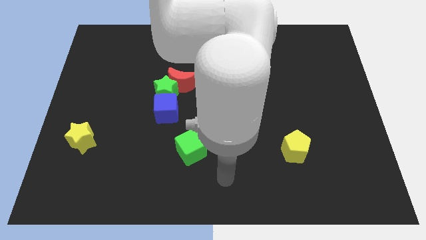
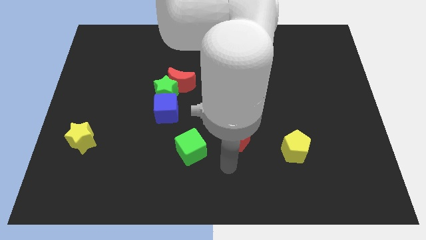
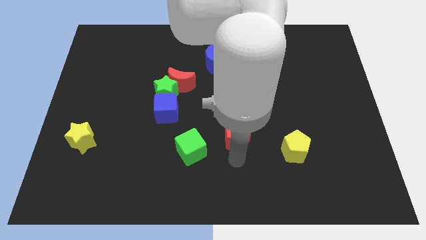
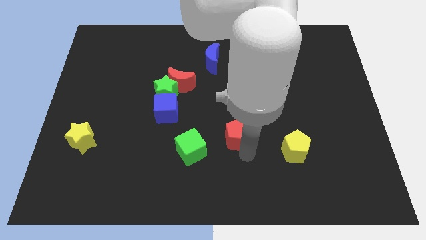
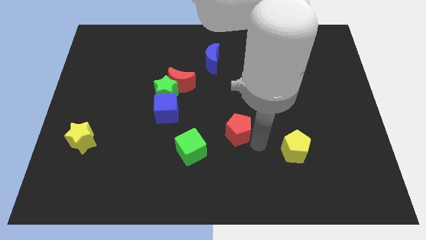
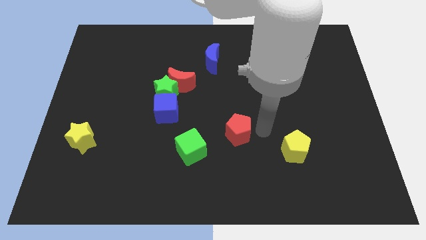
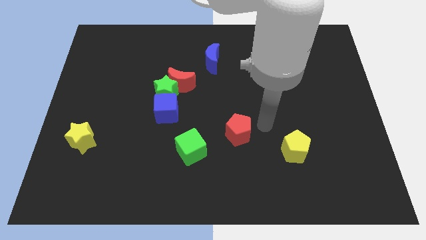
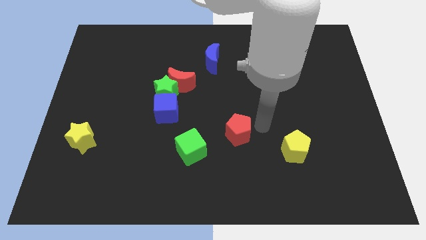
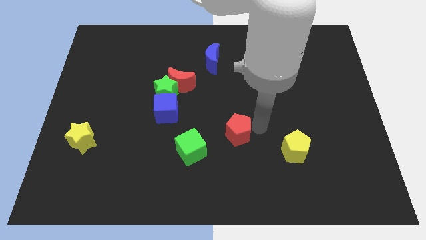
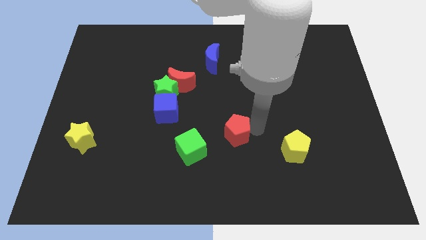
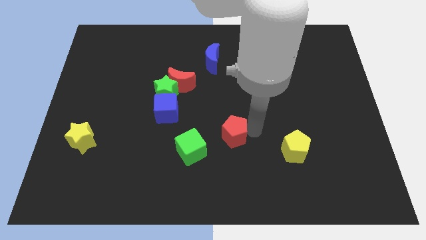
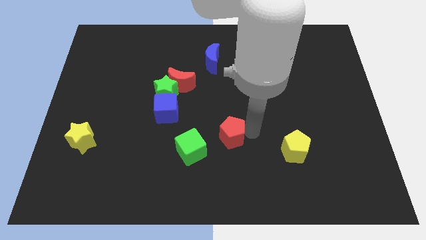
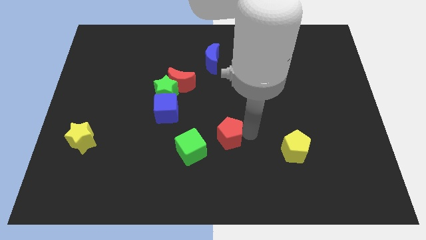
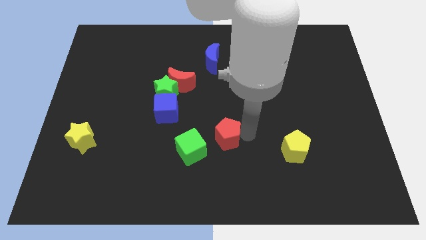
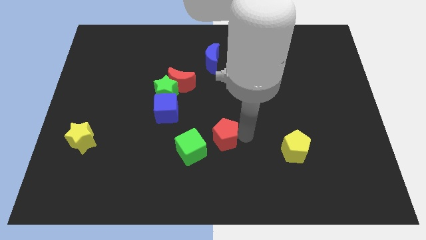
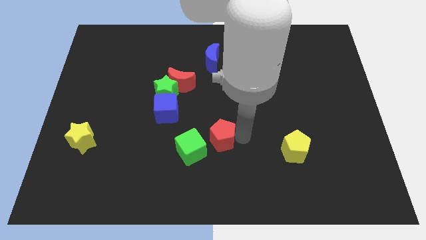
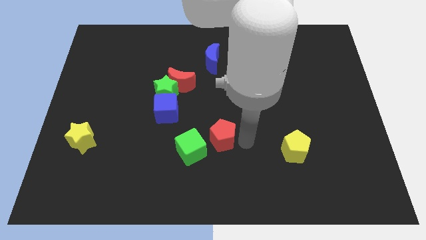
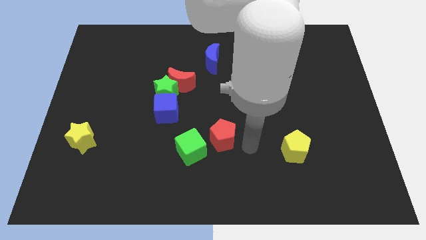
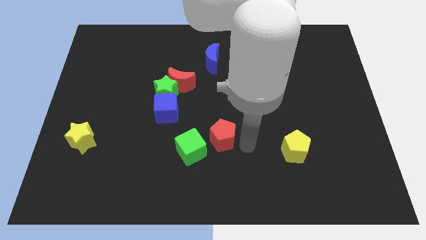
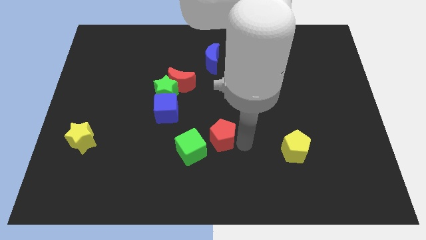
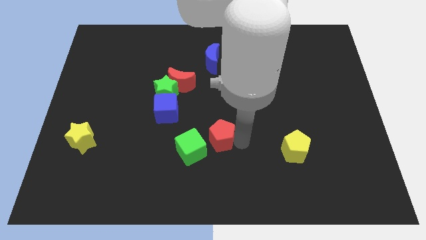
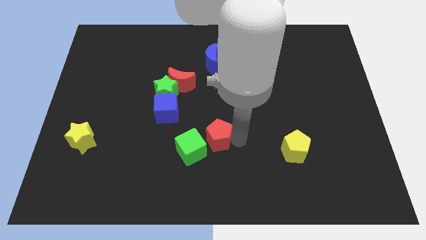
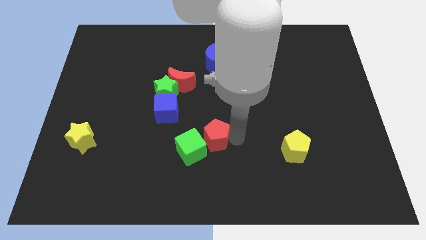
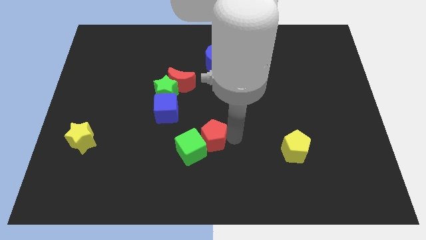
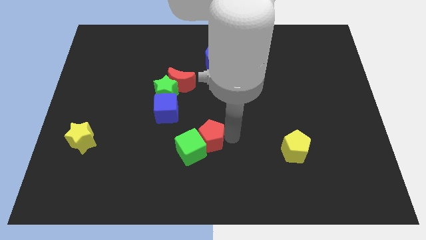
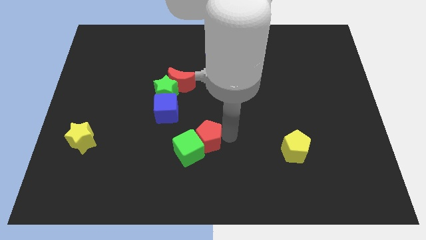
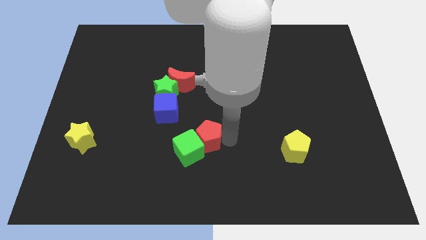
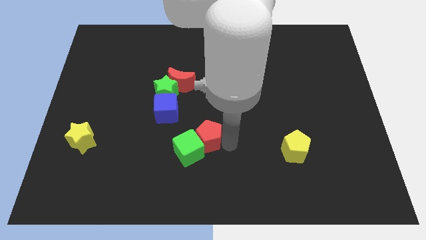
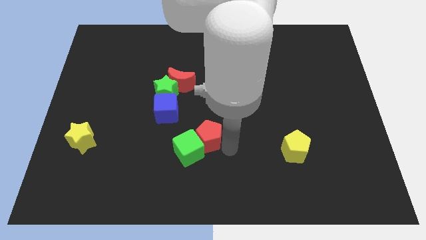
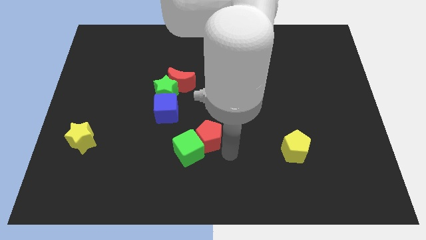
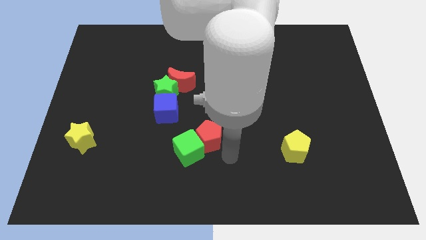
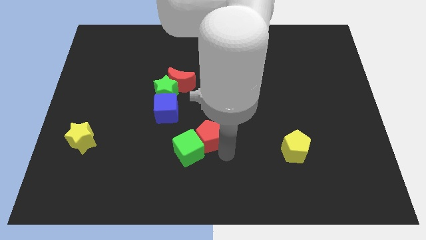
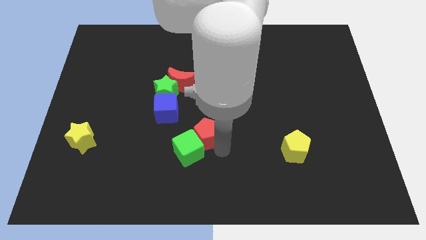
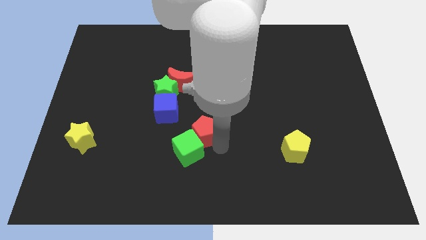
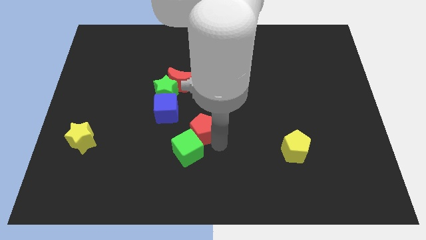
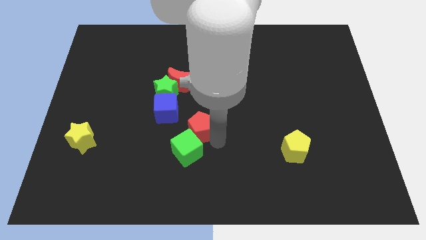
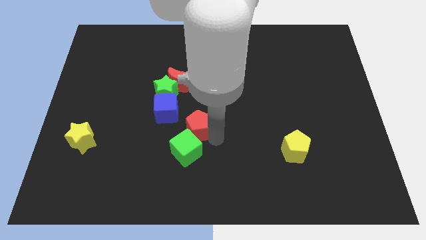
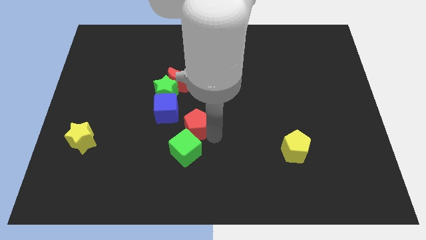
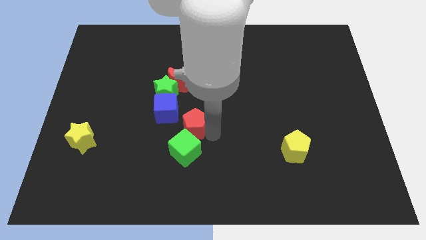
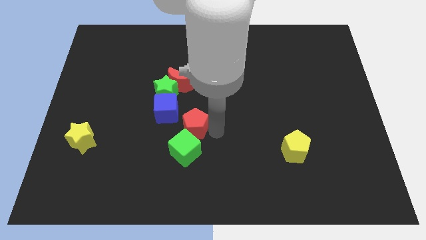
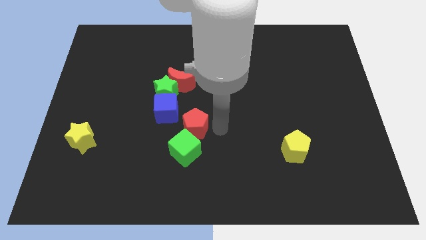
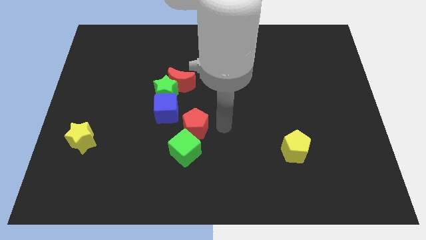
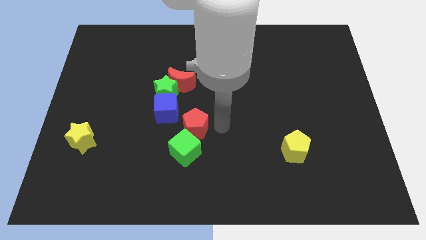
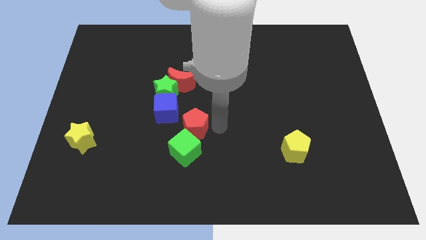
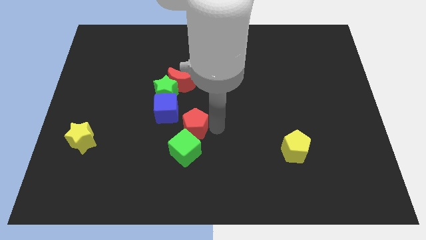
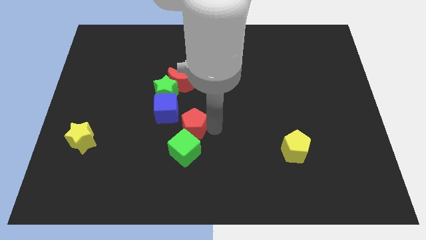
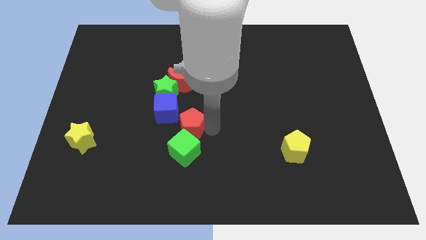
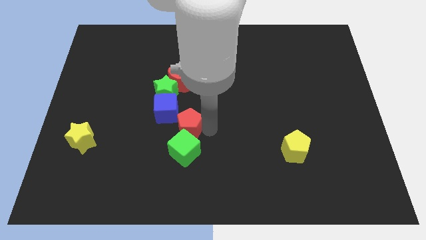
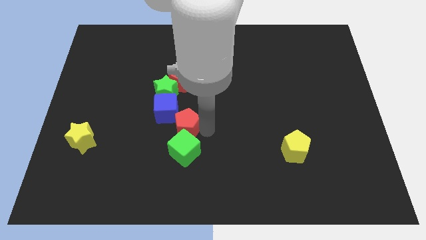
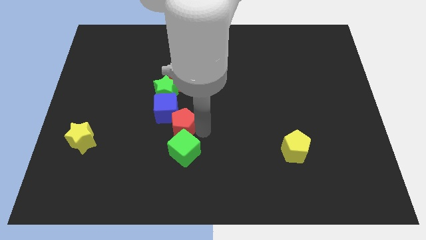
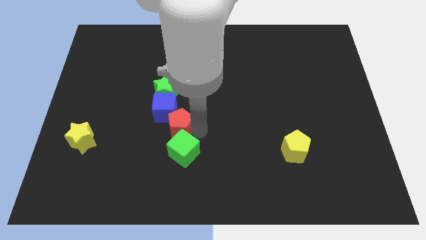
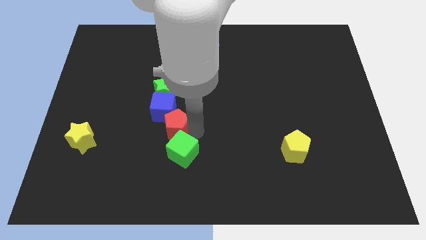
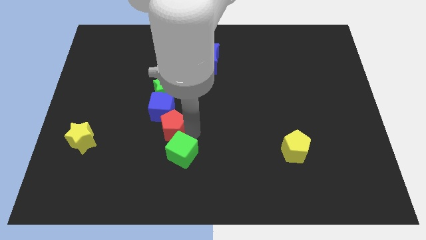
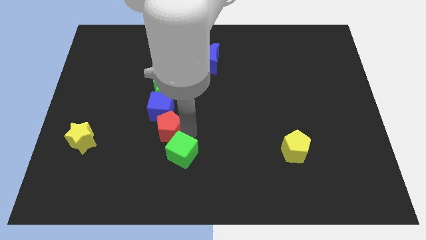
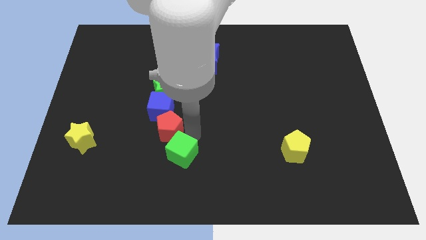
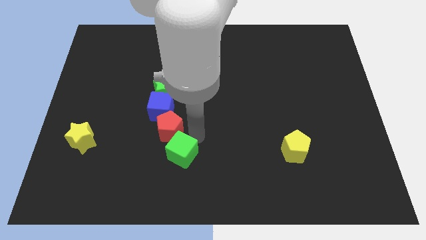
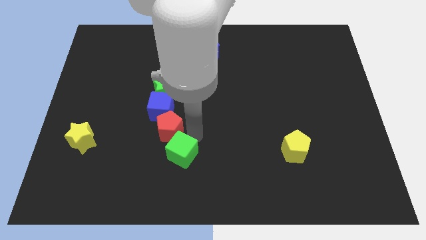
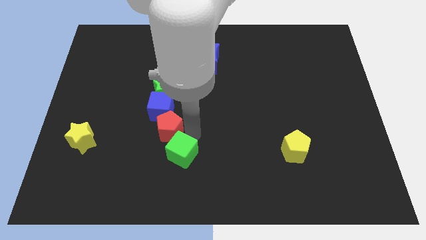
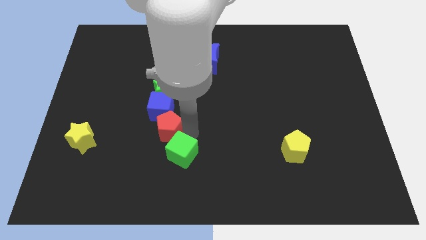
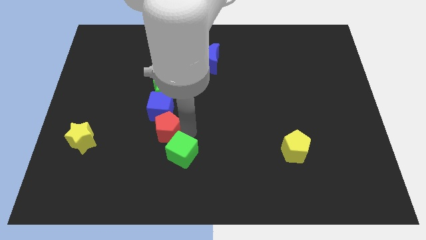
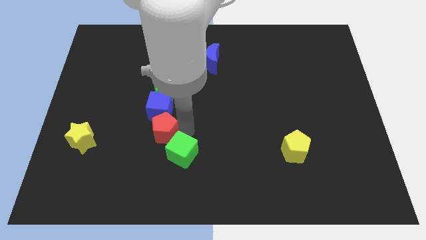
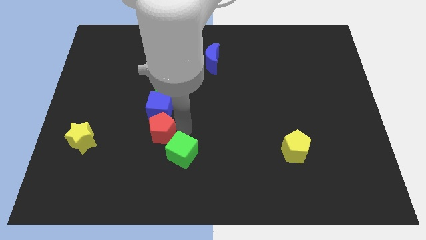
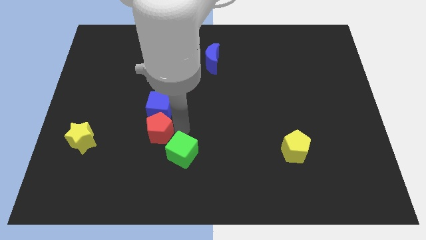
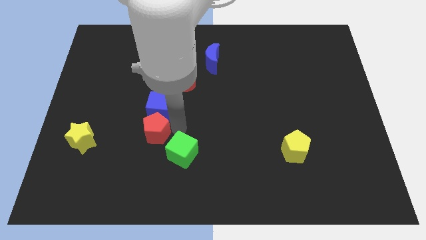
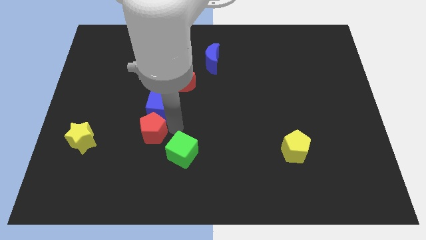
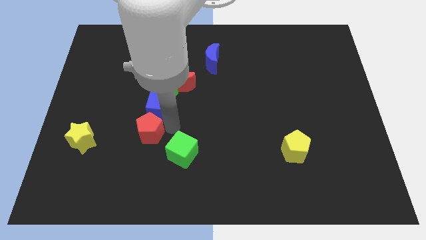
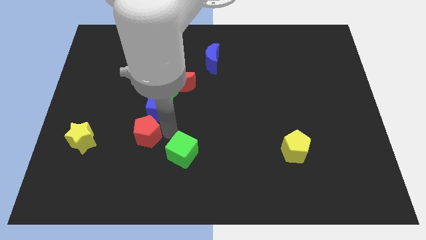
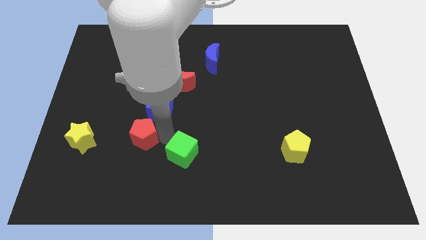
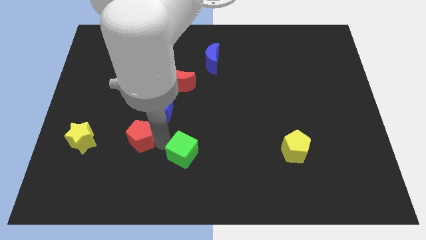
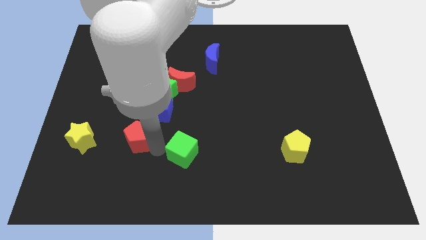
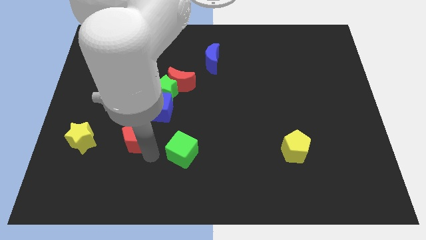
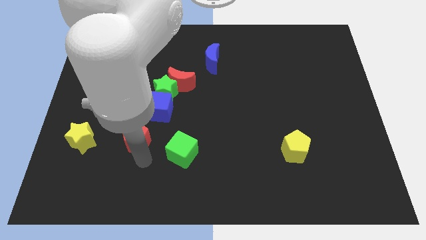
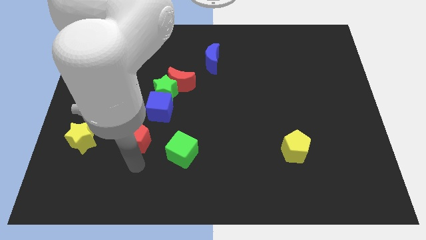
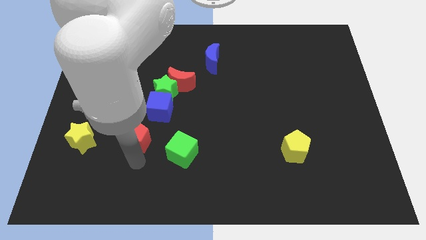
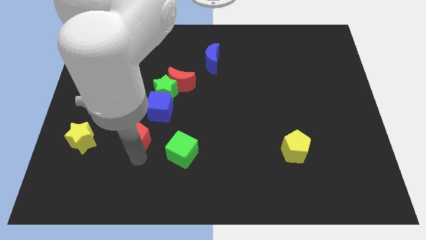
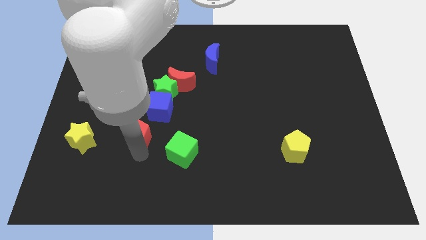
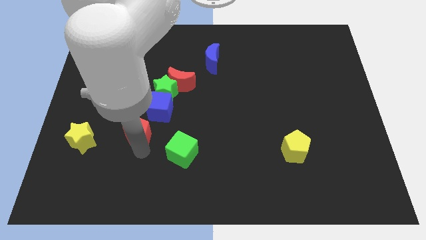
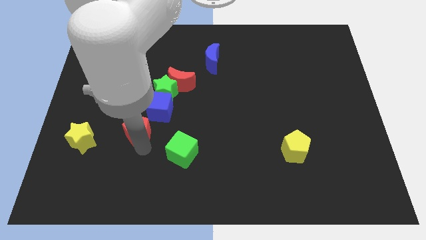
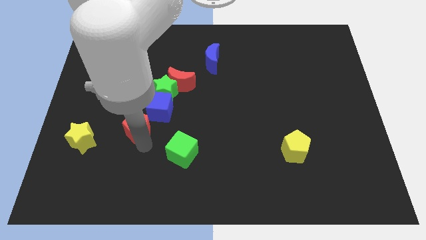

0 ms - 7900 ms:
move the red pentagon to the bottom left of the green star
